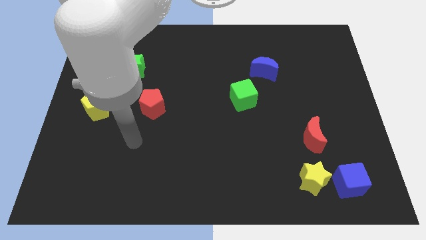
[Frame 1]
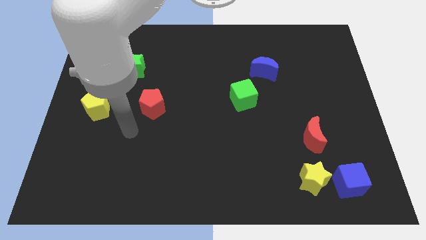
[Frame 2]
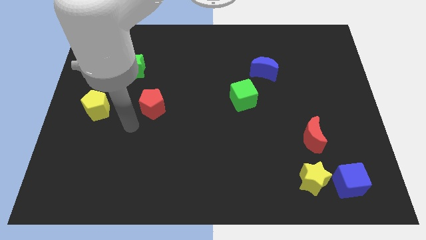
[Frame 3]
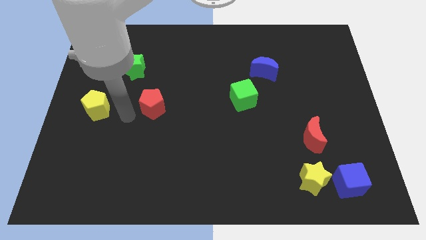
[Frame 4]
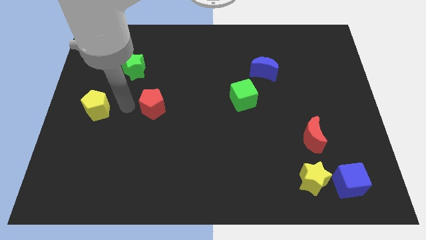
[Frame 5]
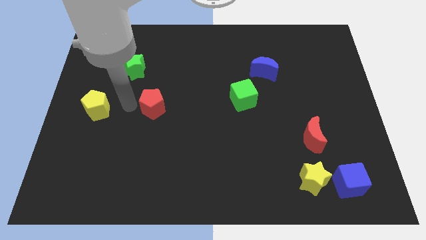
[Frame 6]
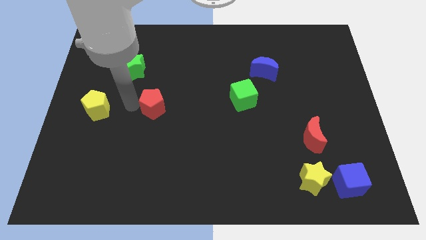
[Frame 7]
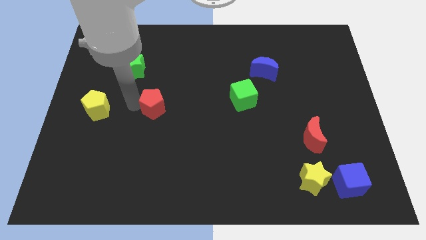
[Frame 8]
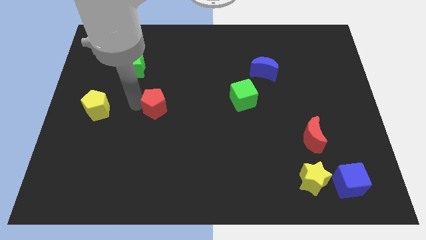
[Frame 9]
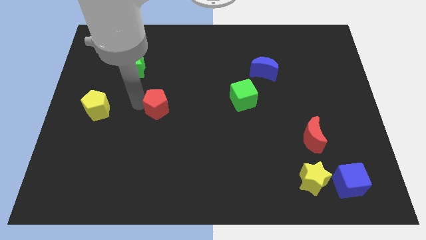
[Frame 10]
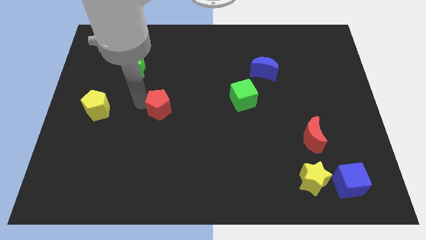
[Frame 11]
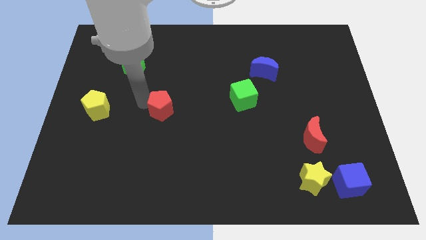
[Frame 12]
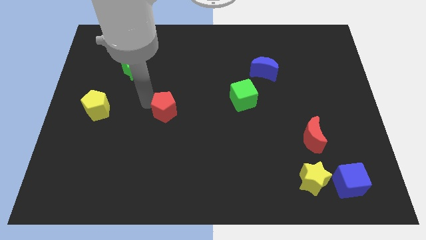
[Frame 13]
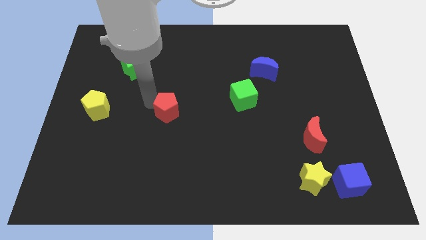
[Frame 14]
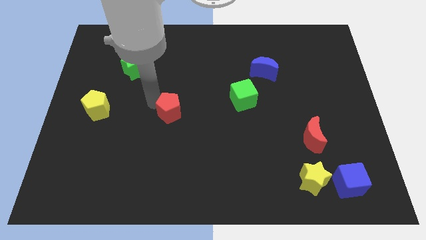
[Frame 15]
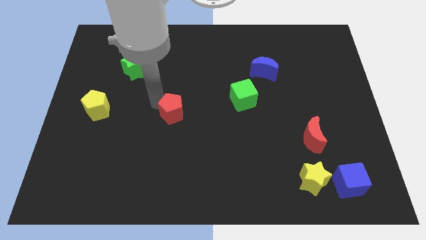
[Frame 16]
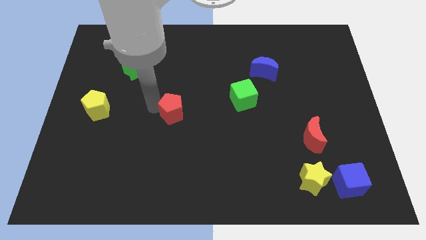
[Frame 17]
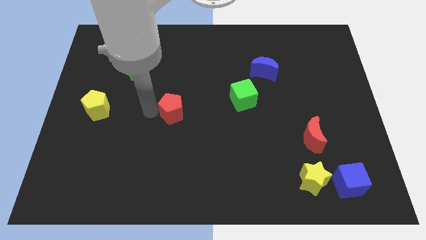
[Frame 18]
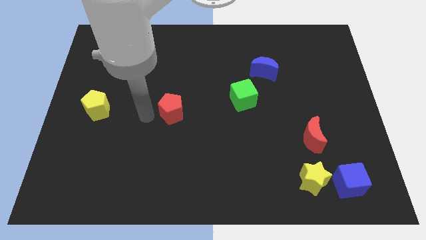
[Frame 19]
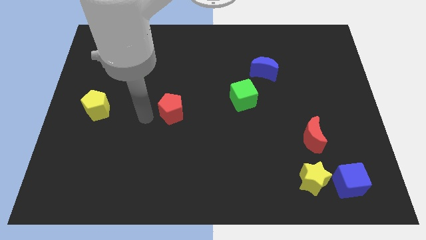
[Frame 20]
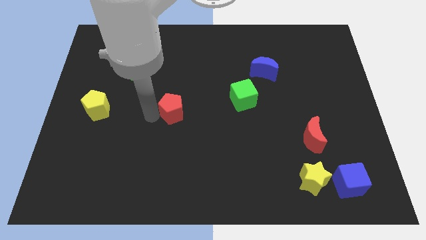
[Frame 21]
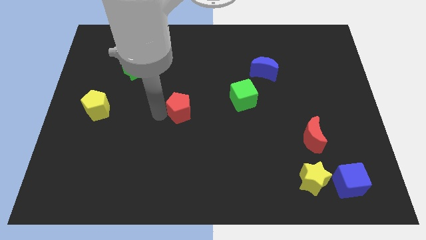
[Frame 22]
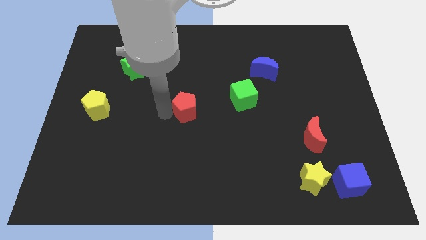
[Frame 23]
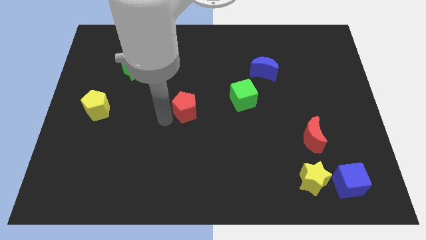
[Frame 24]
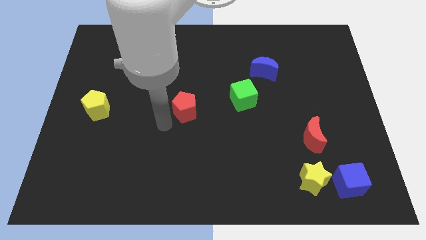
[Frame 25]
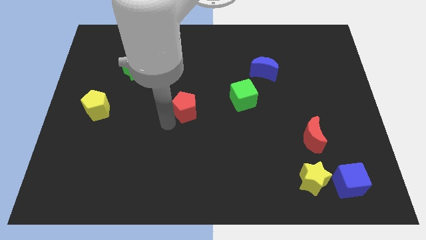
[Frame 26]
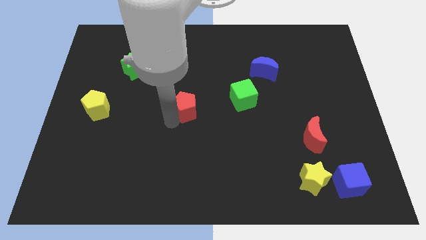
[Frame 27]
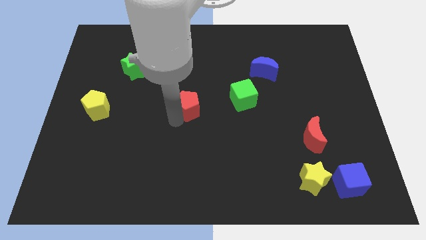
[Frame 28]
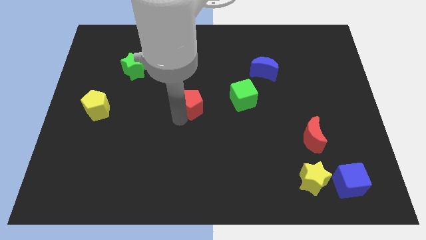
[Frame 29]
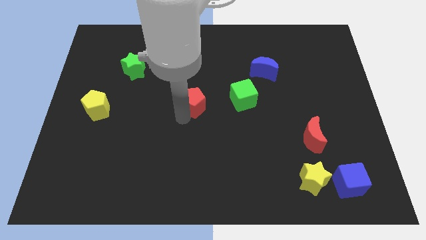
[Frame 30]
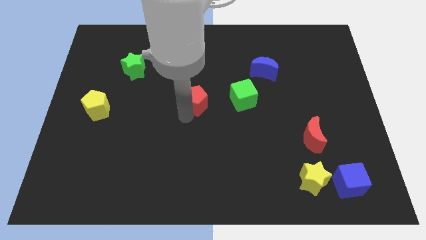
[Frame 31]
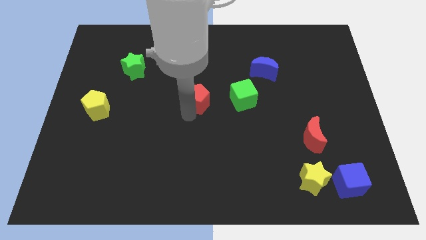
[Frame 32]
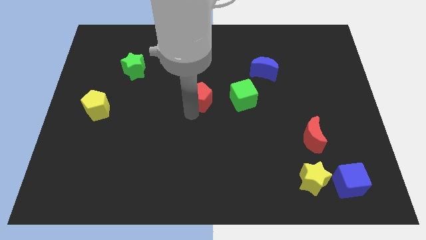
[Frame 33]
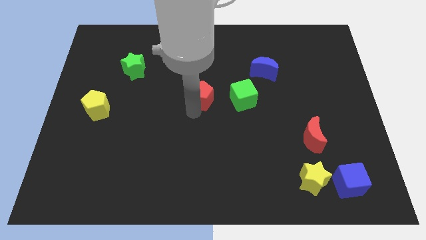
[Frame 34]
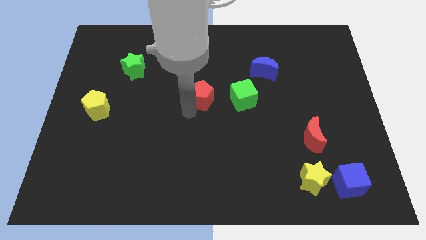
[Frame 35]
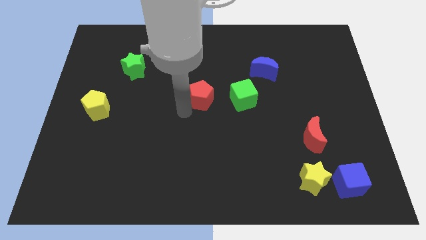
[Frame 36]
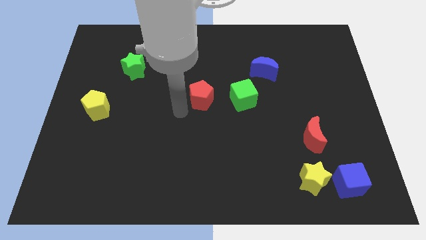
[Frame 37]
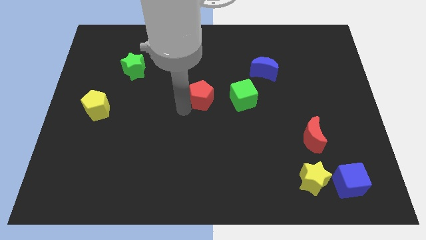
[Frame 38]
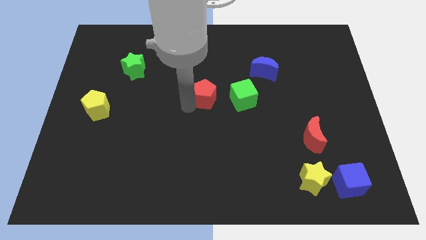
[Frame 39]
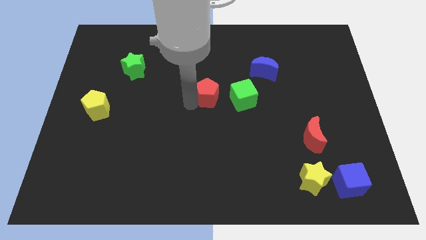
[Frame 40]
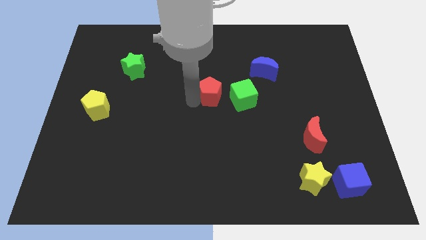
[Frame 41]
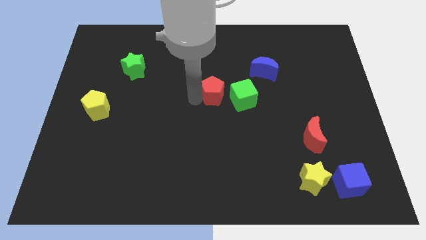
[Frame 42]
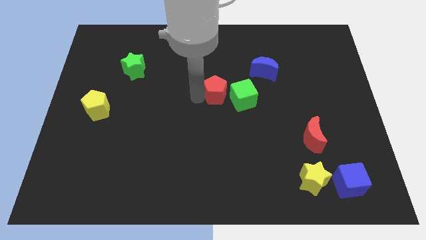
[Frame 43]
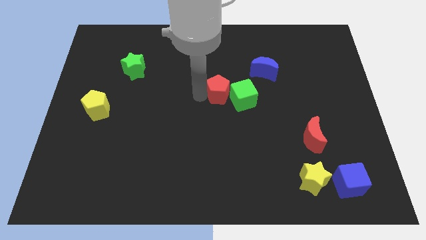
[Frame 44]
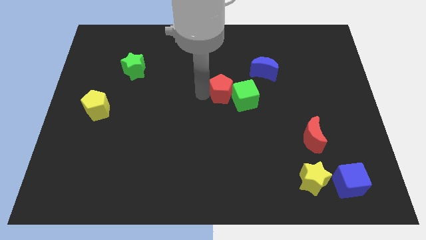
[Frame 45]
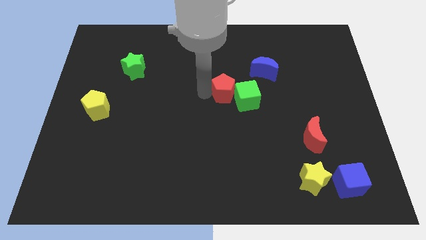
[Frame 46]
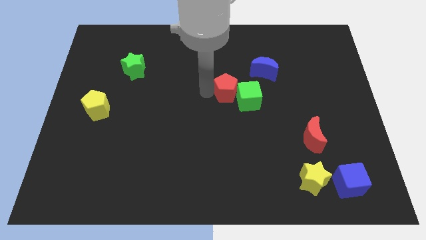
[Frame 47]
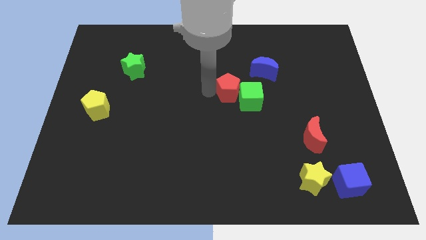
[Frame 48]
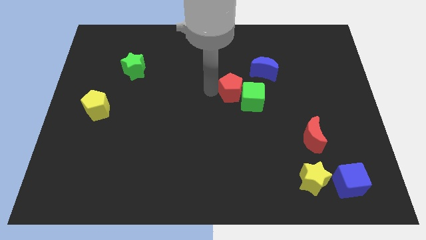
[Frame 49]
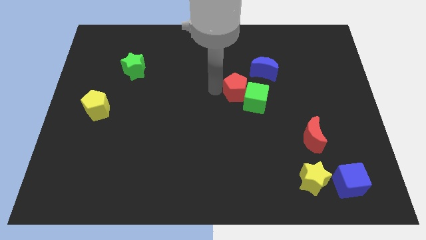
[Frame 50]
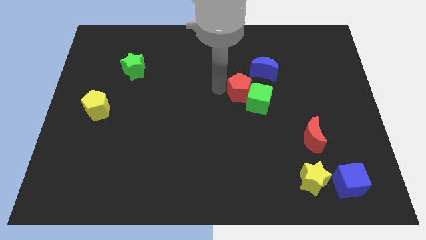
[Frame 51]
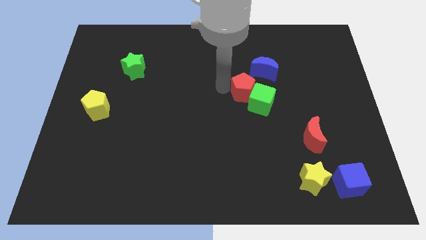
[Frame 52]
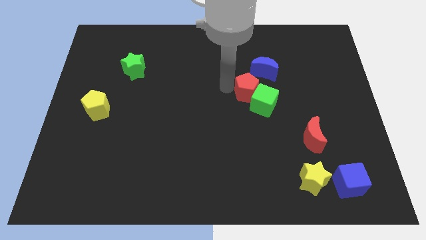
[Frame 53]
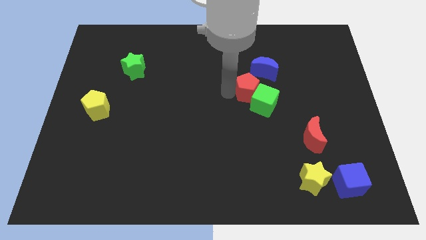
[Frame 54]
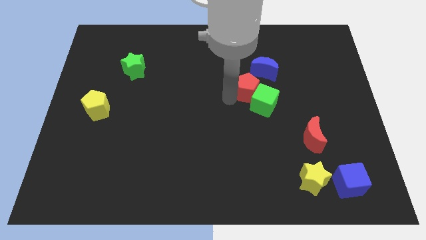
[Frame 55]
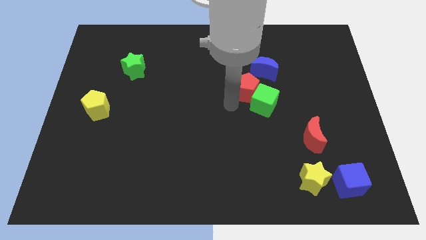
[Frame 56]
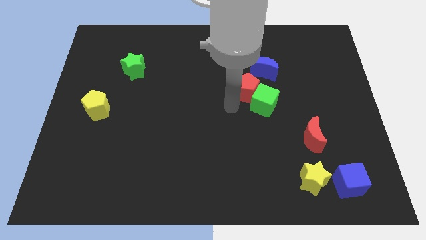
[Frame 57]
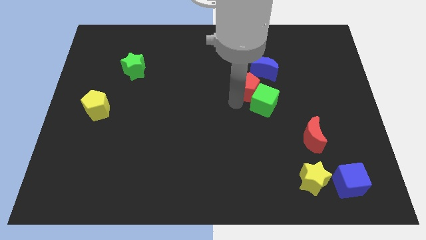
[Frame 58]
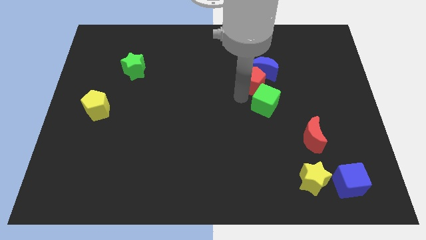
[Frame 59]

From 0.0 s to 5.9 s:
put the red pentagon towards the blue moon
